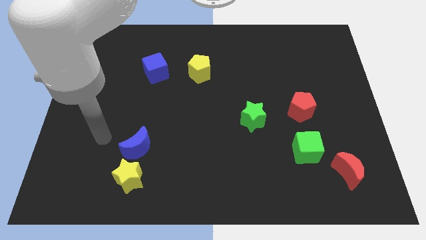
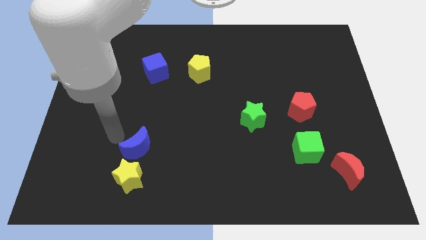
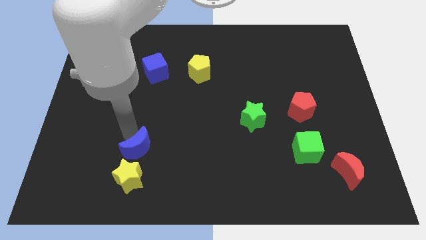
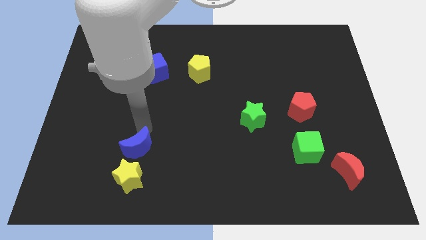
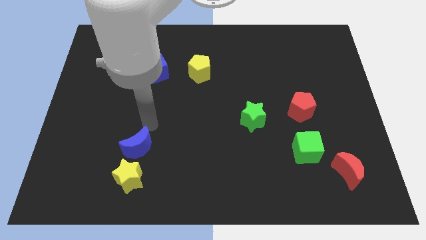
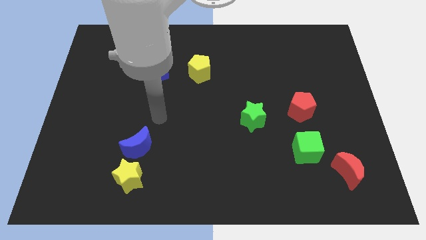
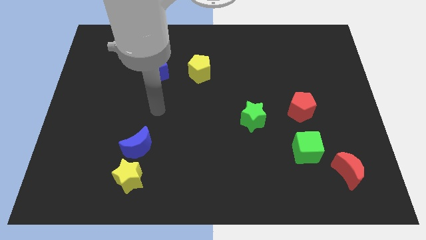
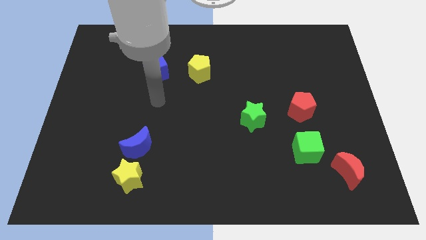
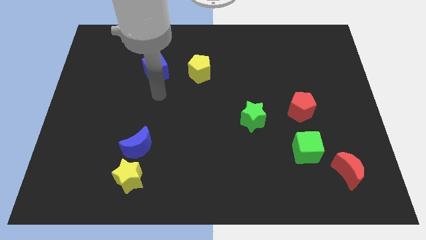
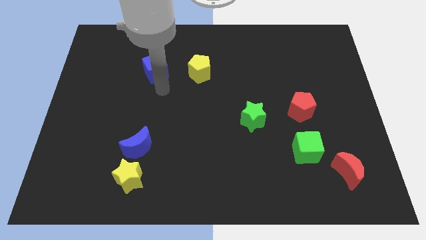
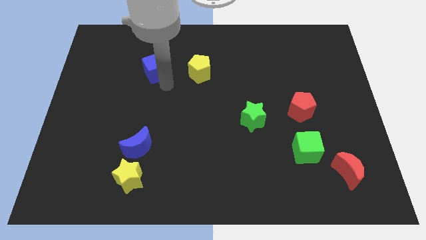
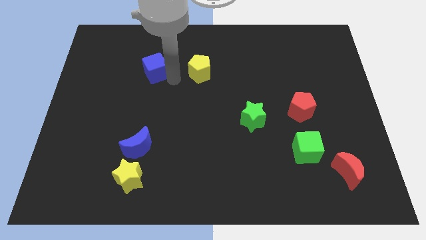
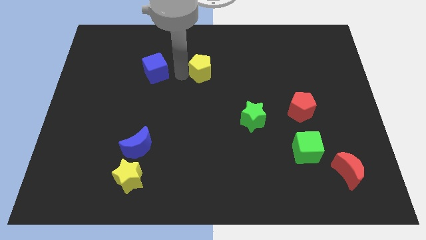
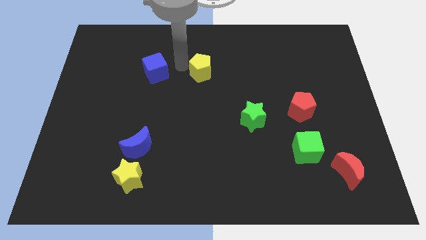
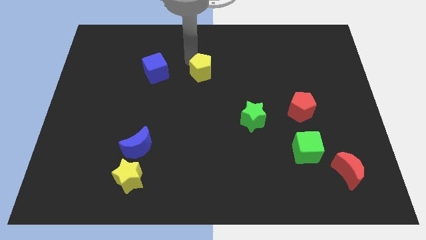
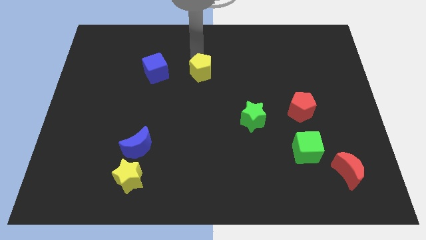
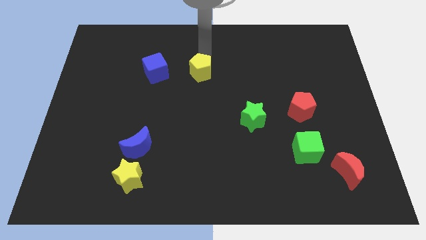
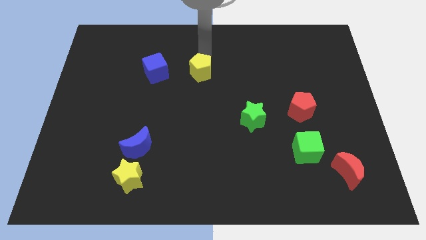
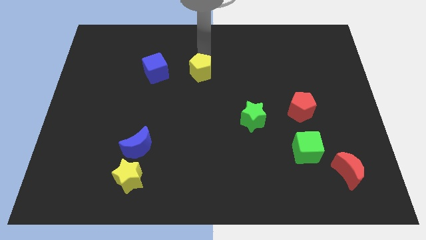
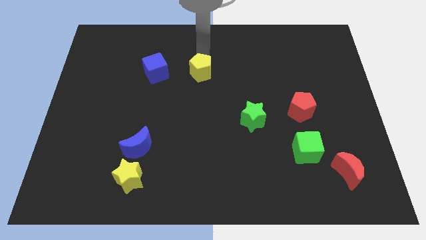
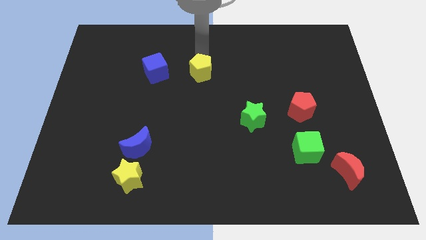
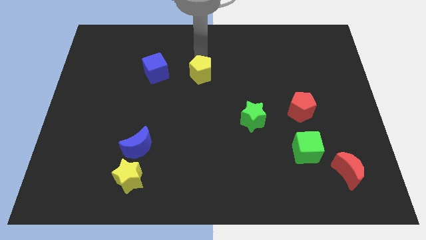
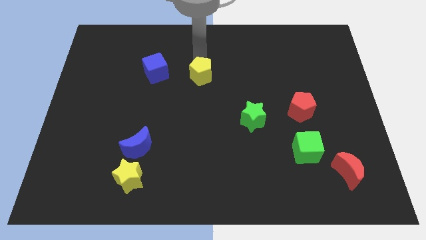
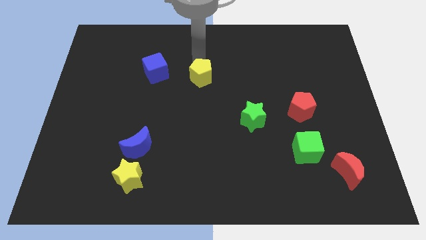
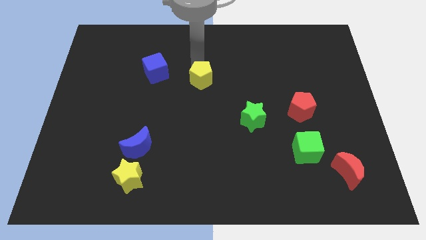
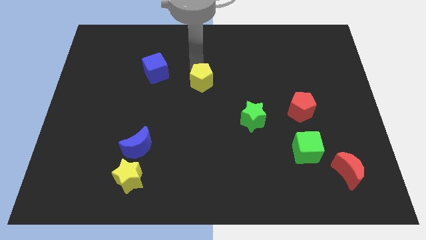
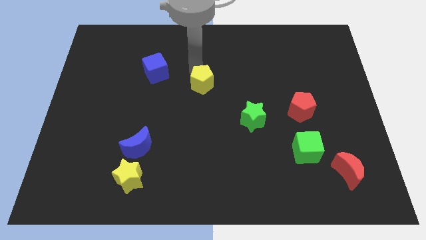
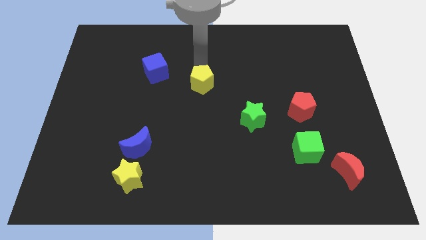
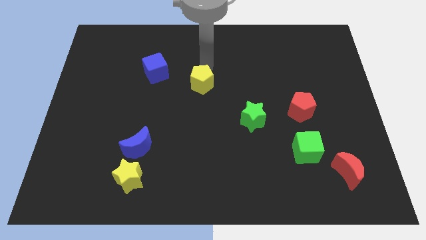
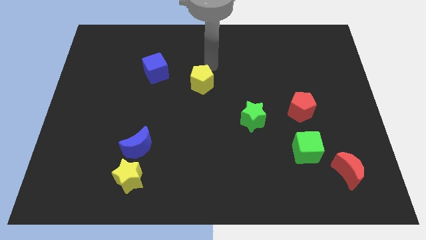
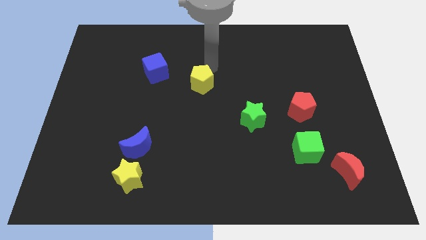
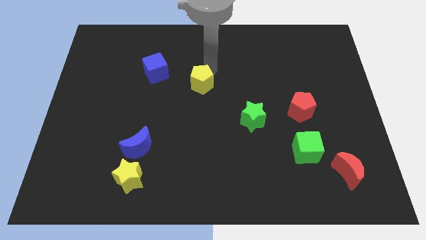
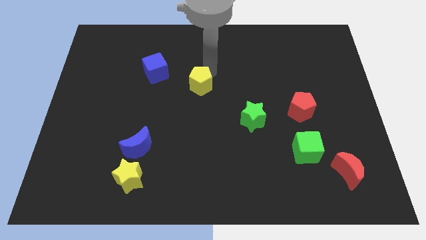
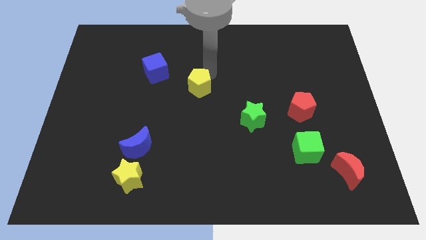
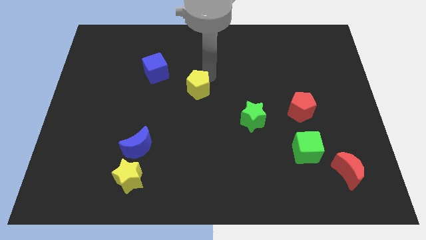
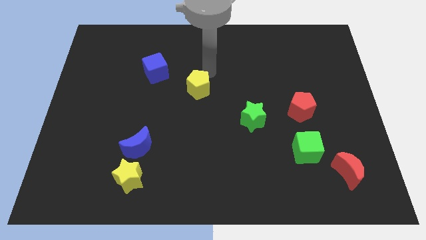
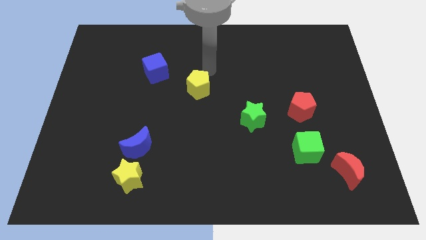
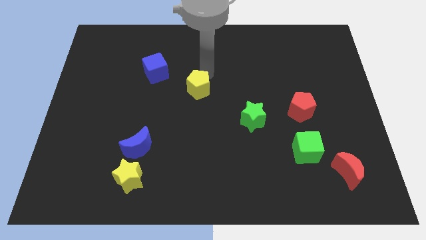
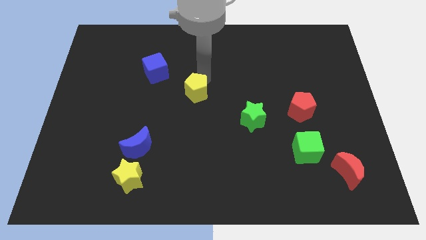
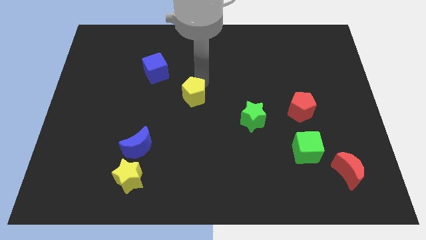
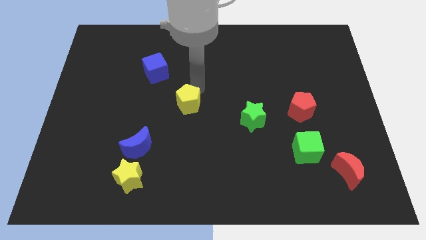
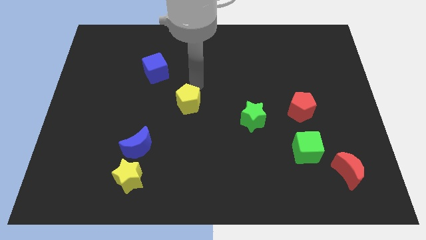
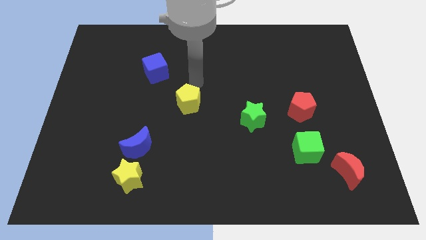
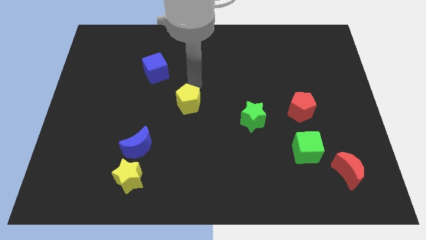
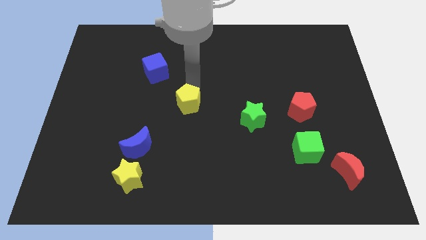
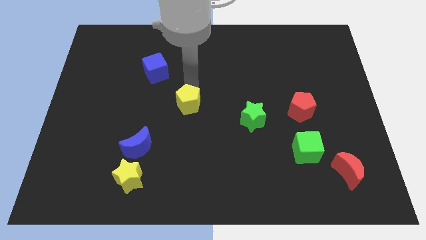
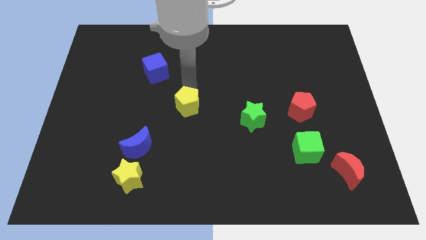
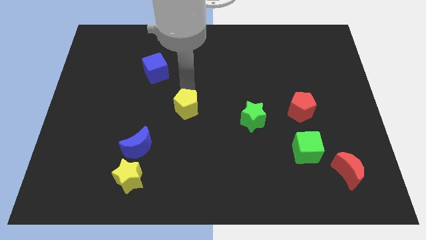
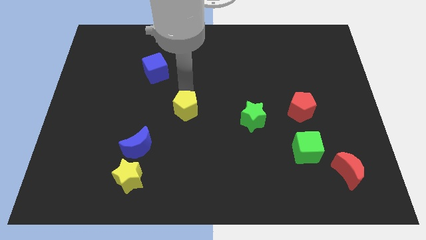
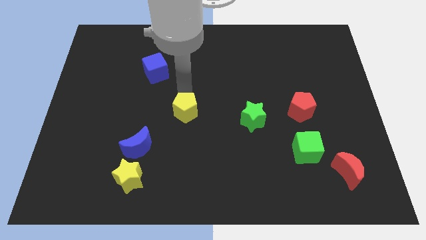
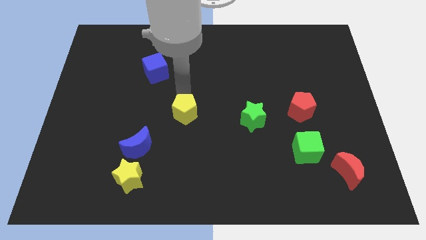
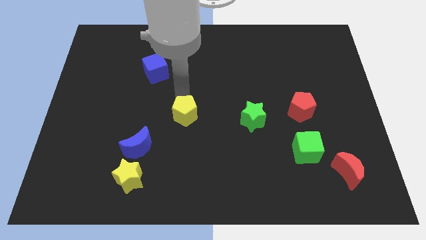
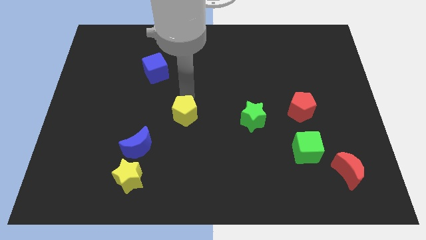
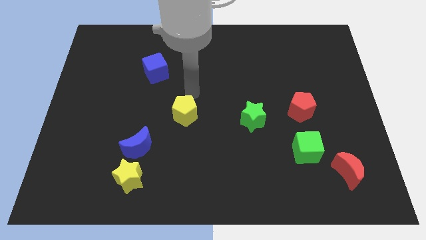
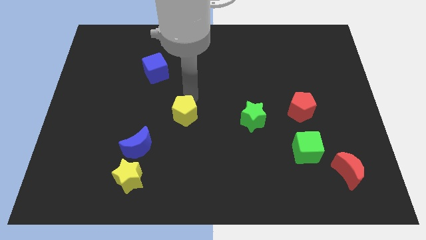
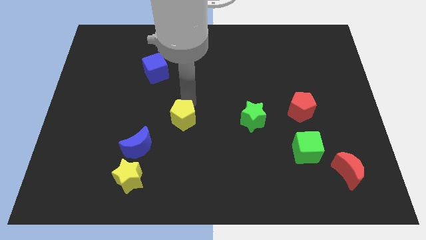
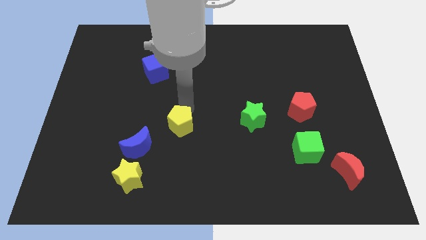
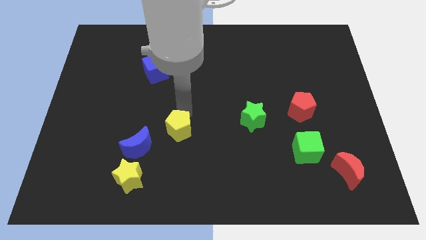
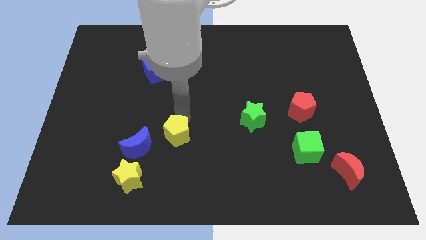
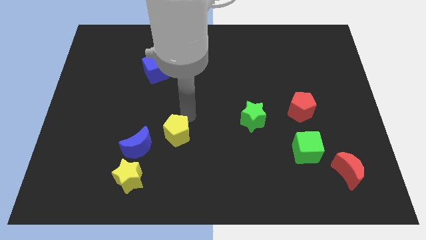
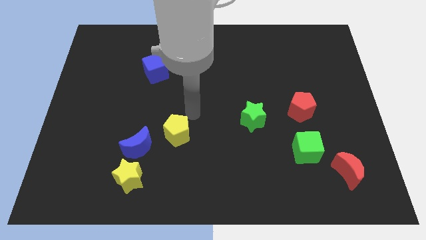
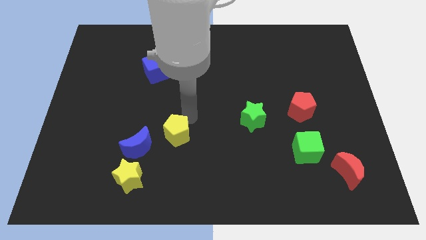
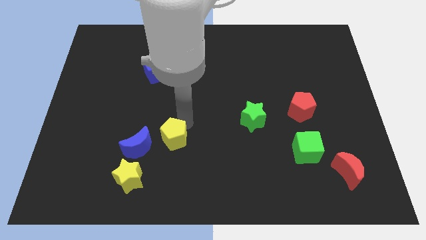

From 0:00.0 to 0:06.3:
move the yellow pentagon to the top right of the yellow star

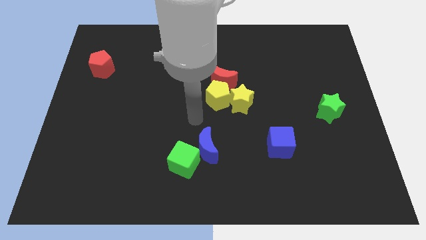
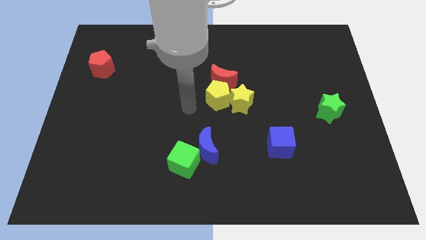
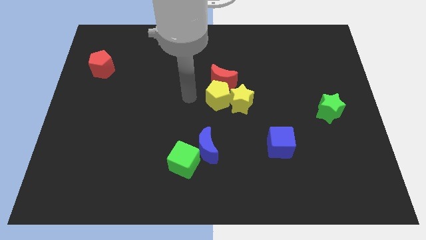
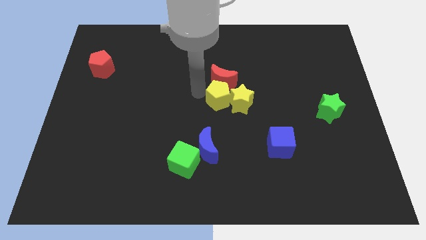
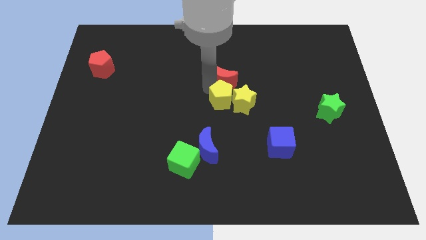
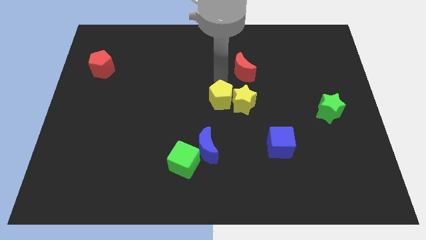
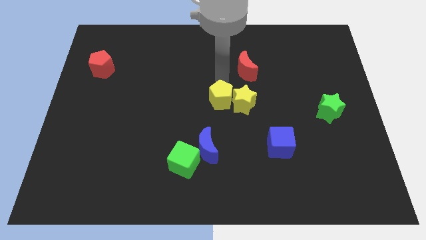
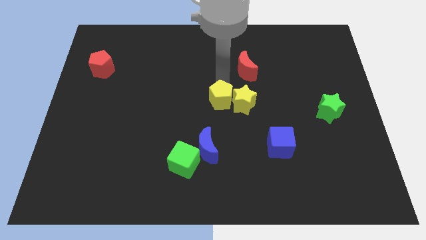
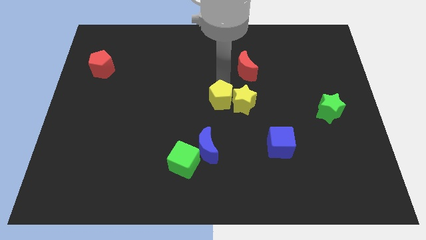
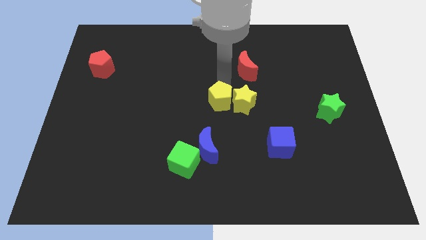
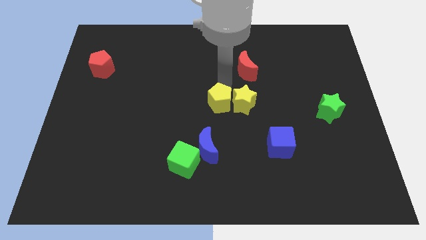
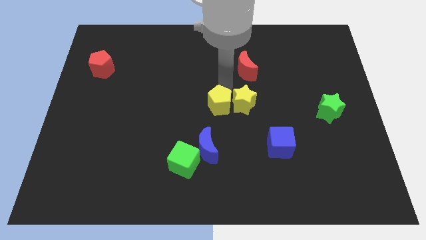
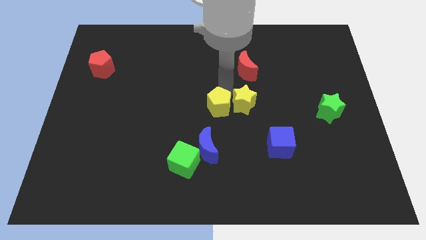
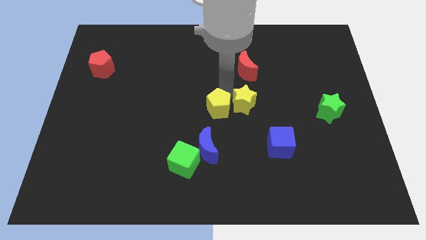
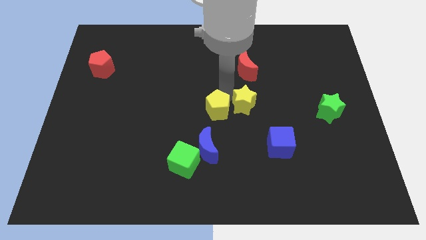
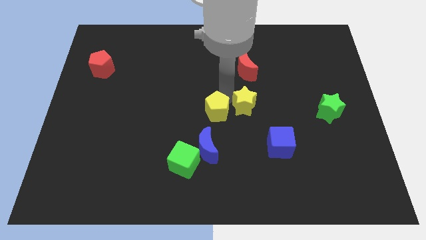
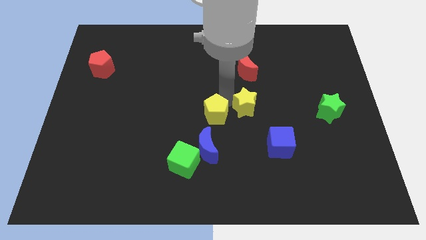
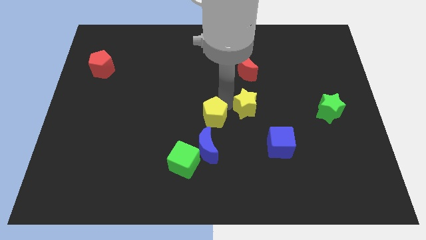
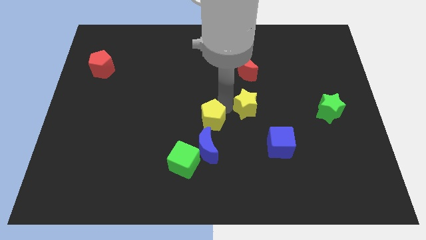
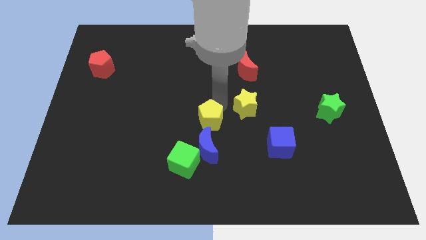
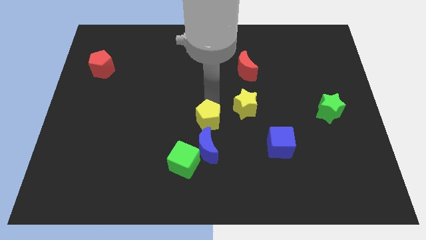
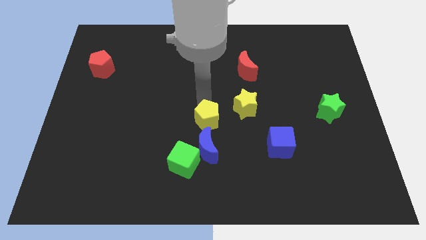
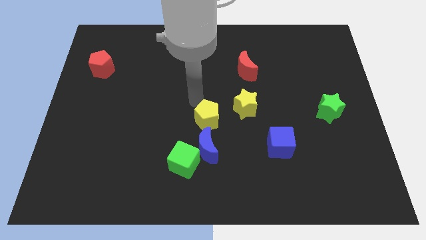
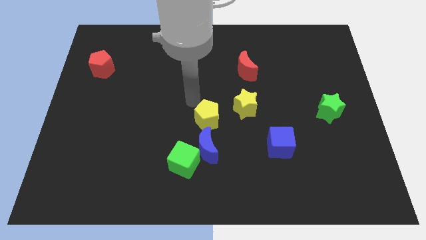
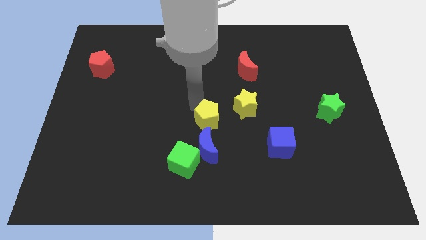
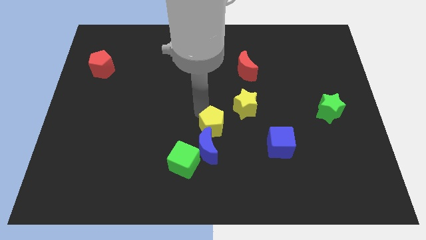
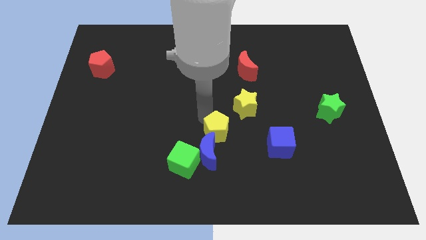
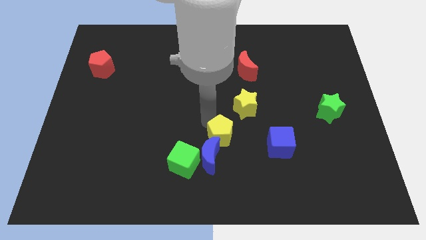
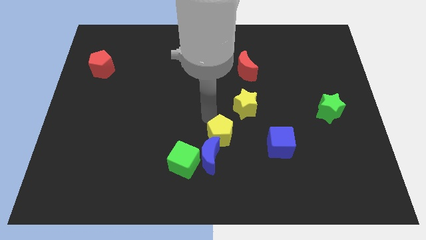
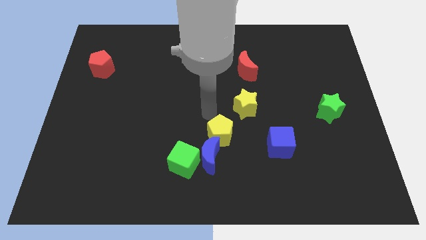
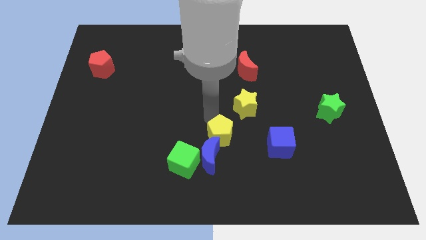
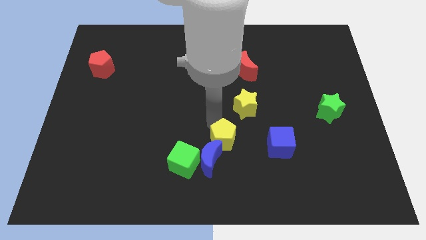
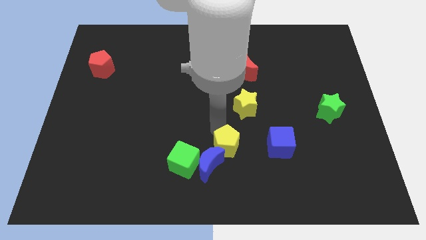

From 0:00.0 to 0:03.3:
slide the yellow pentagon just right of the green cube
